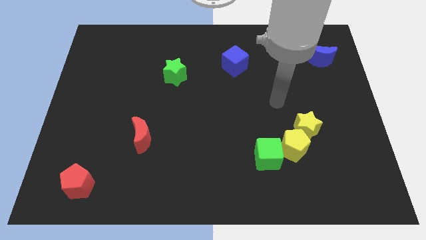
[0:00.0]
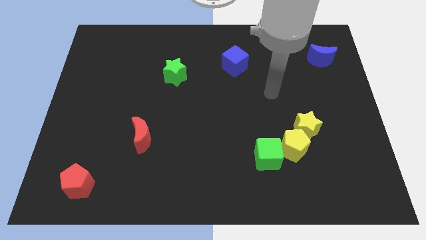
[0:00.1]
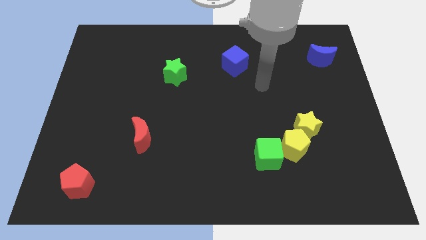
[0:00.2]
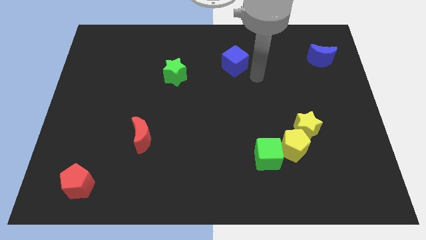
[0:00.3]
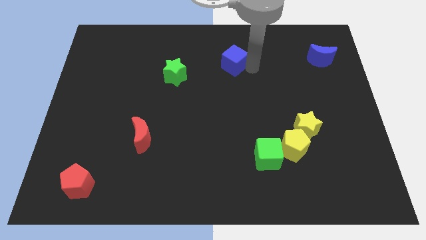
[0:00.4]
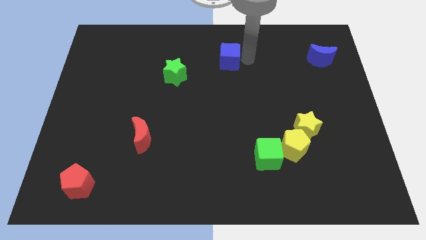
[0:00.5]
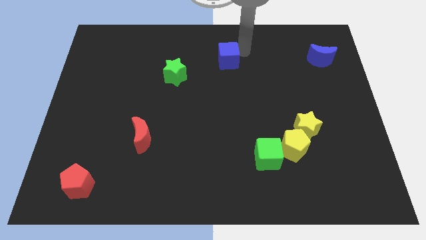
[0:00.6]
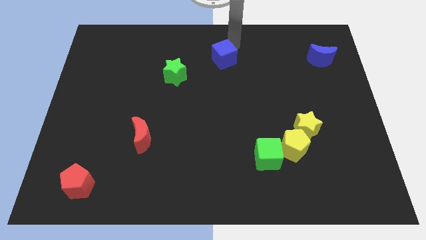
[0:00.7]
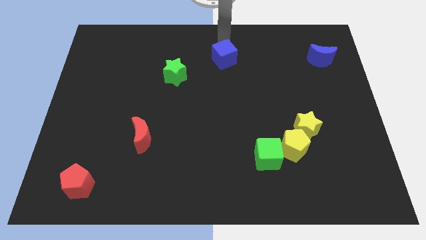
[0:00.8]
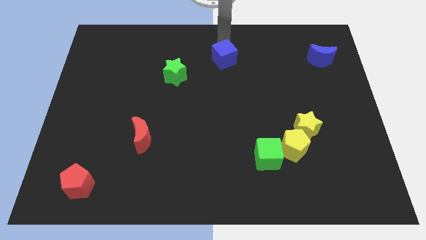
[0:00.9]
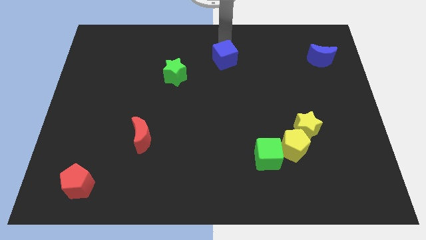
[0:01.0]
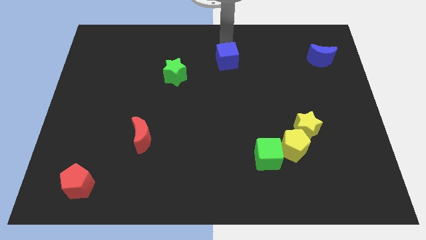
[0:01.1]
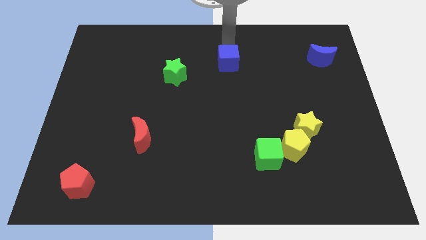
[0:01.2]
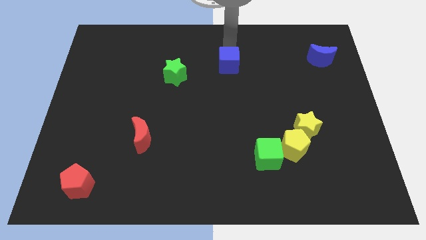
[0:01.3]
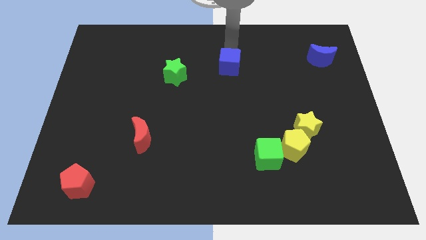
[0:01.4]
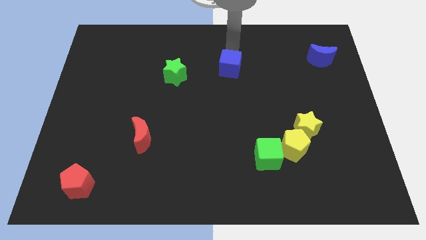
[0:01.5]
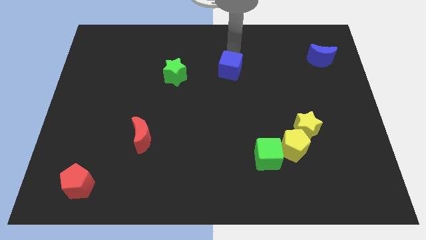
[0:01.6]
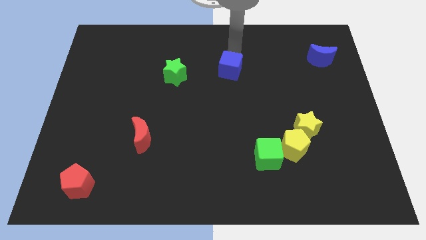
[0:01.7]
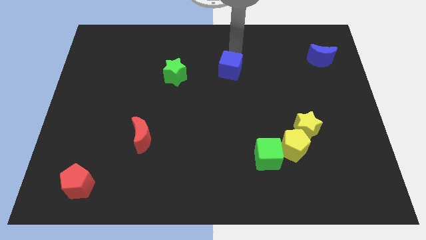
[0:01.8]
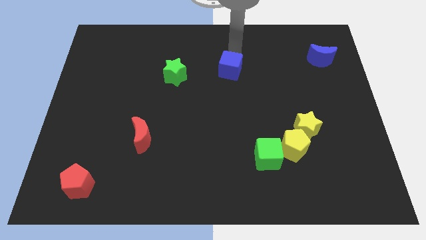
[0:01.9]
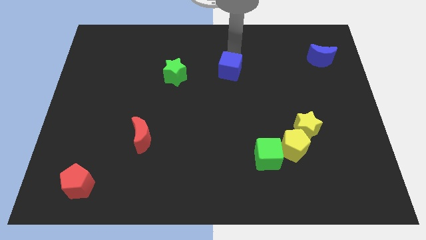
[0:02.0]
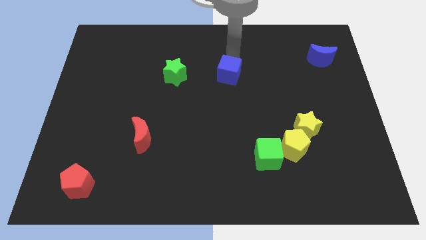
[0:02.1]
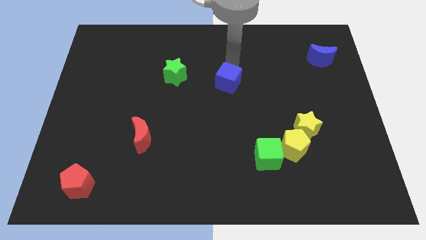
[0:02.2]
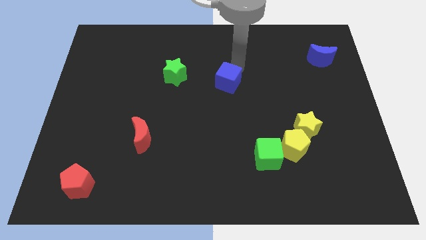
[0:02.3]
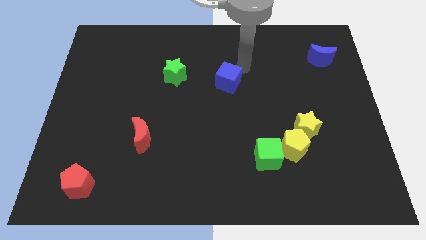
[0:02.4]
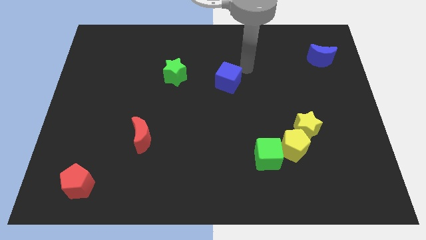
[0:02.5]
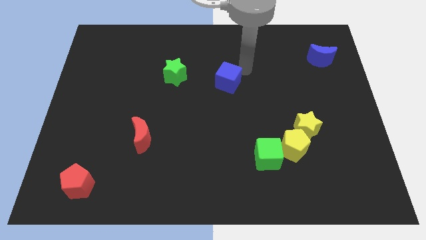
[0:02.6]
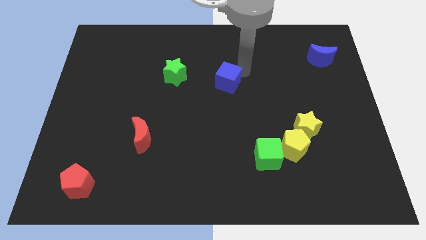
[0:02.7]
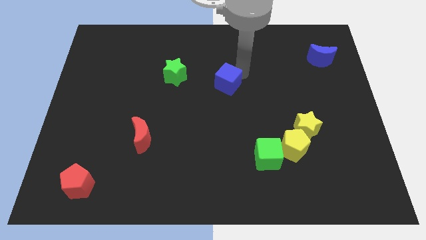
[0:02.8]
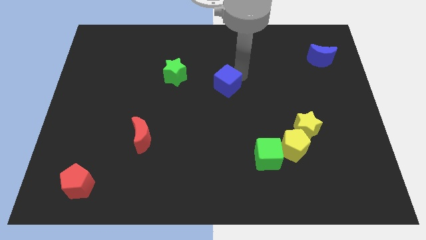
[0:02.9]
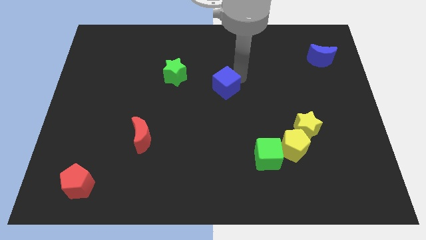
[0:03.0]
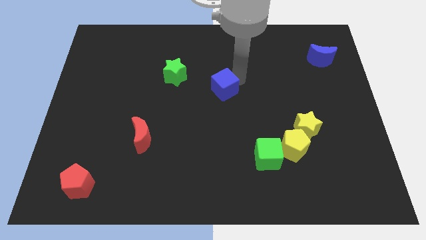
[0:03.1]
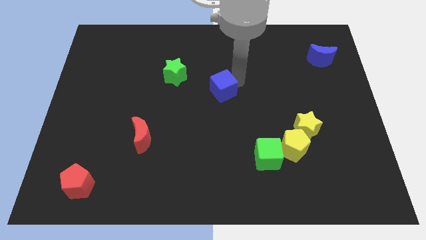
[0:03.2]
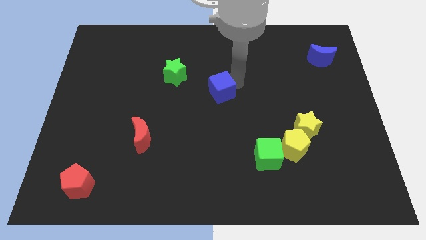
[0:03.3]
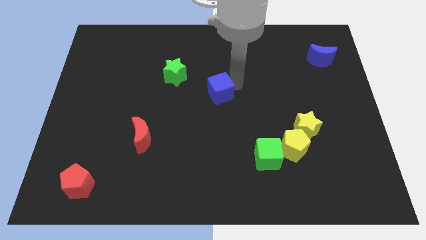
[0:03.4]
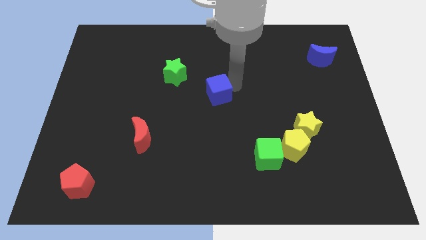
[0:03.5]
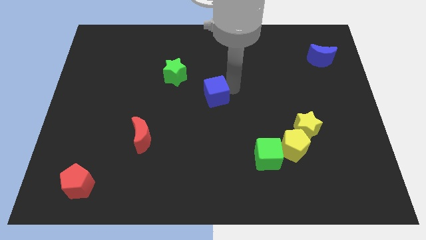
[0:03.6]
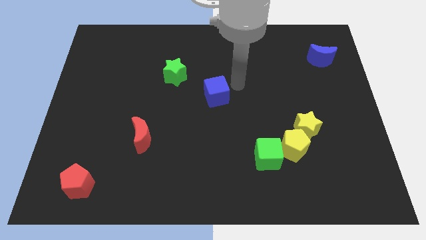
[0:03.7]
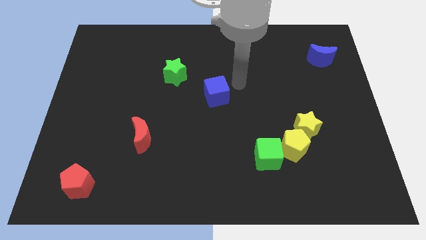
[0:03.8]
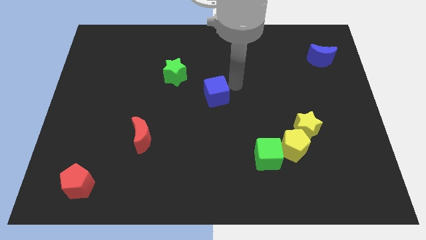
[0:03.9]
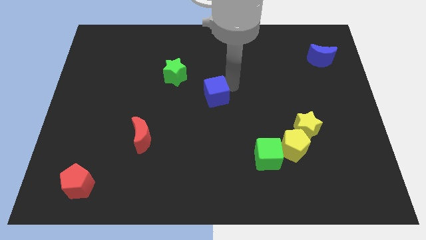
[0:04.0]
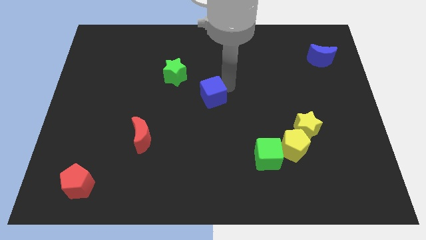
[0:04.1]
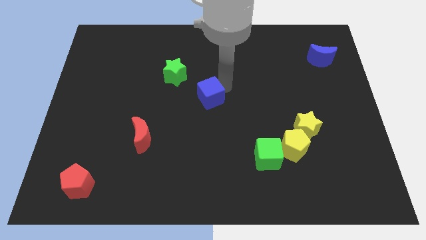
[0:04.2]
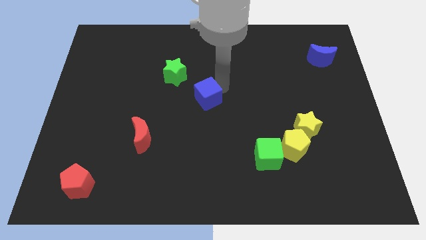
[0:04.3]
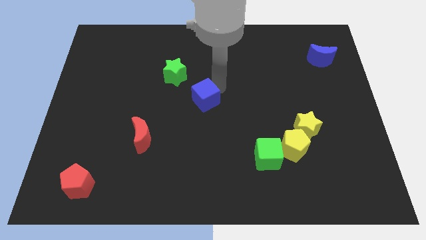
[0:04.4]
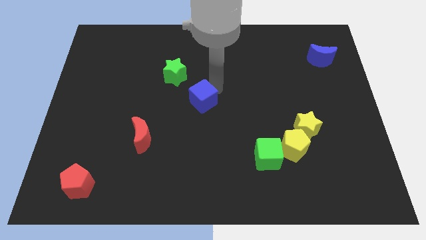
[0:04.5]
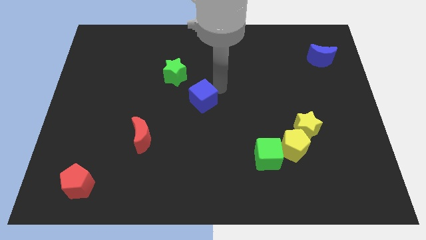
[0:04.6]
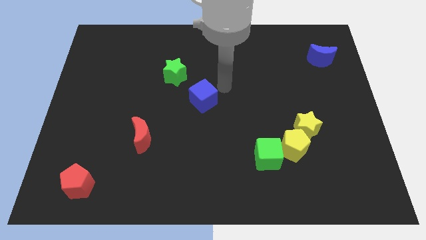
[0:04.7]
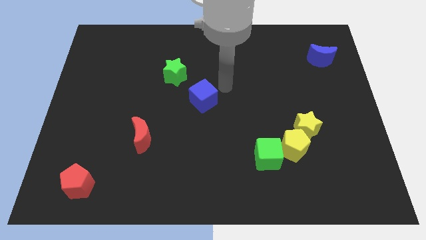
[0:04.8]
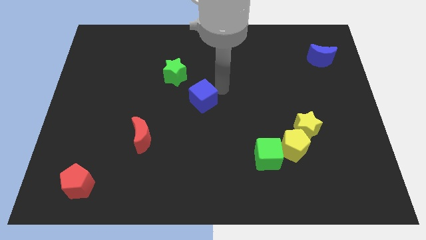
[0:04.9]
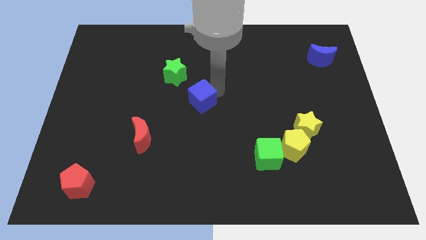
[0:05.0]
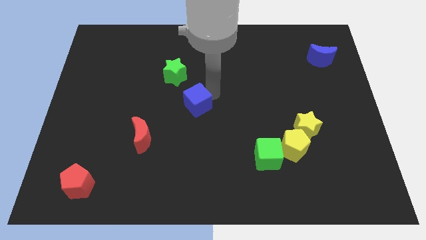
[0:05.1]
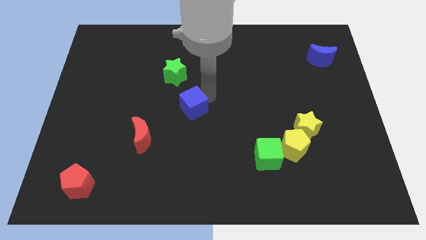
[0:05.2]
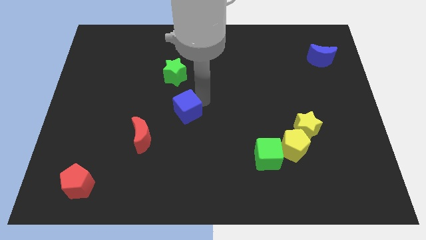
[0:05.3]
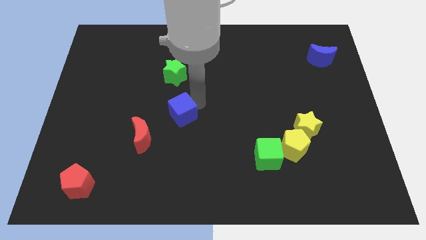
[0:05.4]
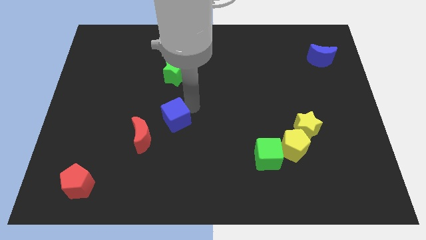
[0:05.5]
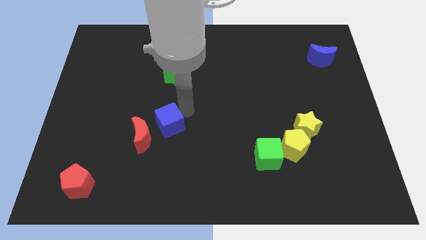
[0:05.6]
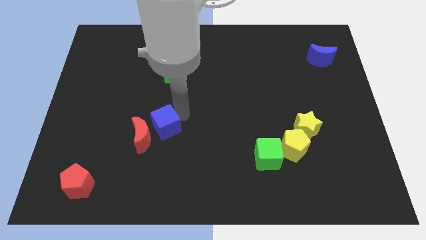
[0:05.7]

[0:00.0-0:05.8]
slide the blue cube to the red moon

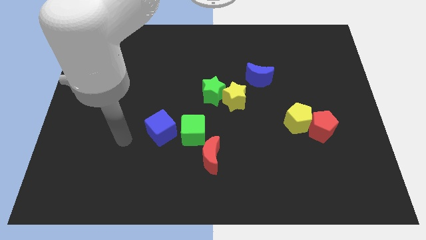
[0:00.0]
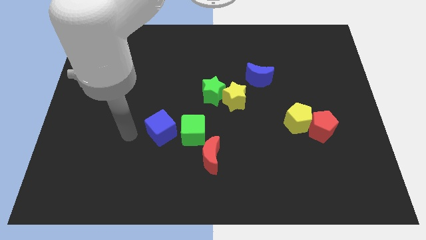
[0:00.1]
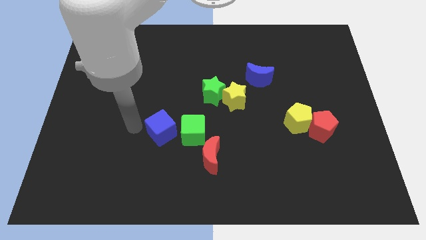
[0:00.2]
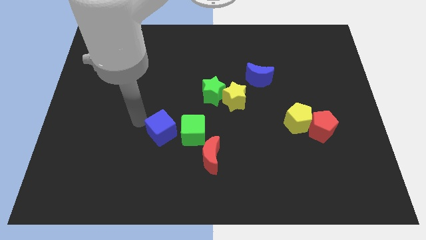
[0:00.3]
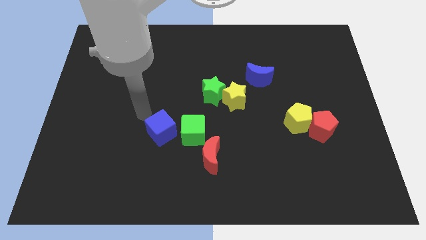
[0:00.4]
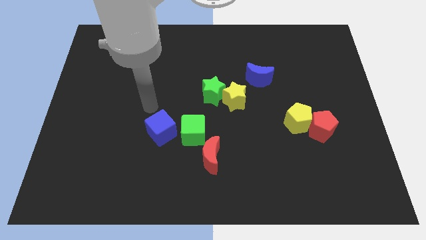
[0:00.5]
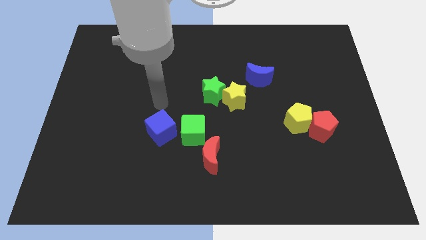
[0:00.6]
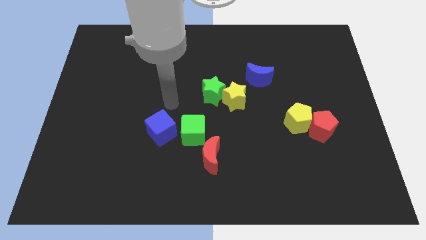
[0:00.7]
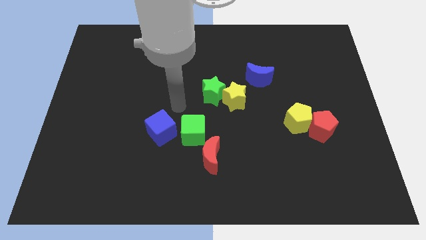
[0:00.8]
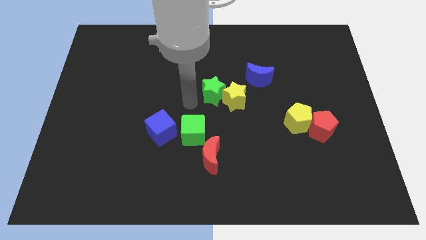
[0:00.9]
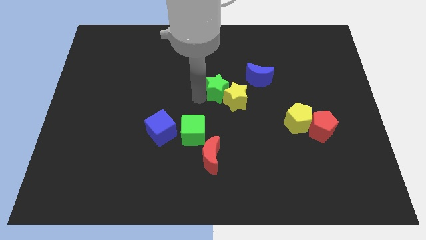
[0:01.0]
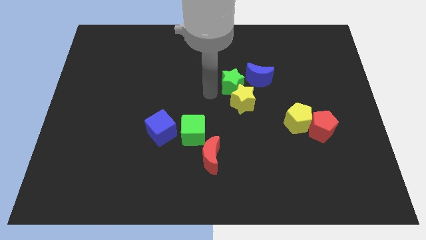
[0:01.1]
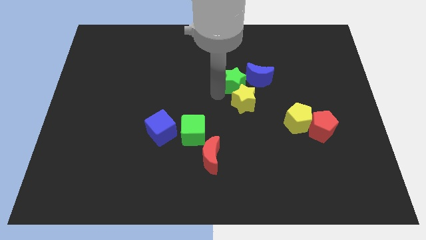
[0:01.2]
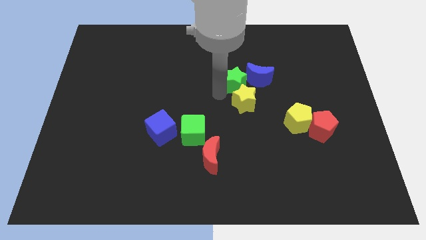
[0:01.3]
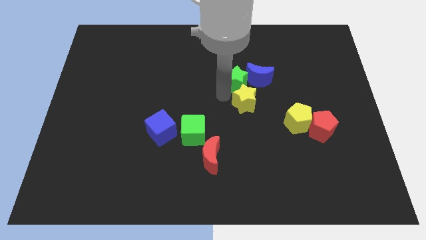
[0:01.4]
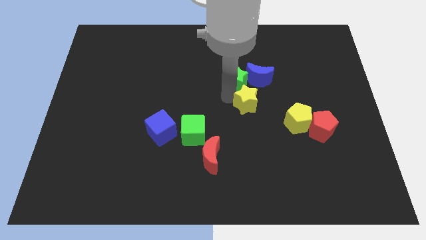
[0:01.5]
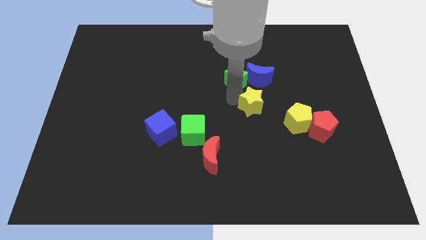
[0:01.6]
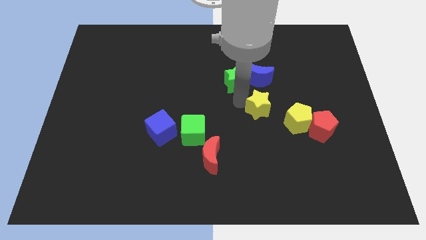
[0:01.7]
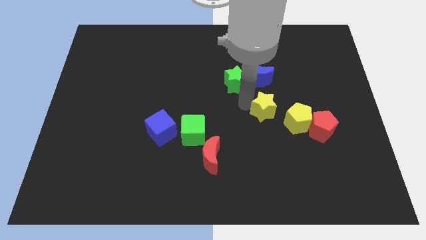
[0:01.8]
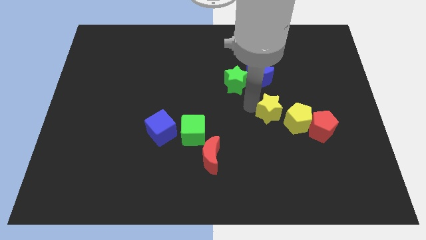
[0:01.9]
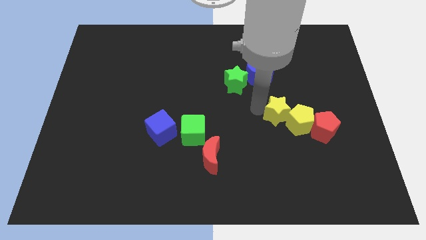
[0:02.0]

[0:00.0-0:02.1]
slide the yellow star to the yellow pentagon
